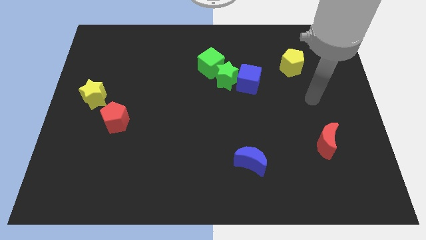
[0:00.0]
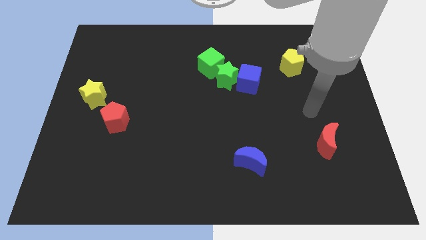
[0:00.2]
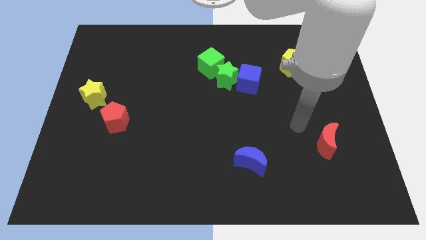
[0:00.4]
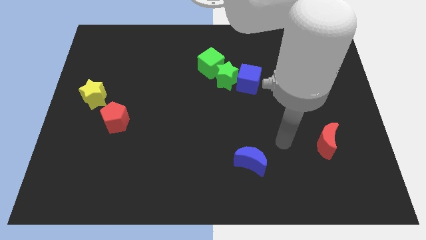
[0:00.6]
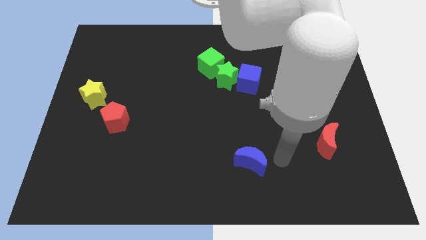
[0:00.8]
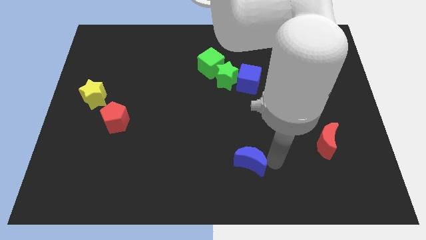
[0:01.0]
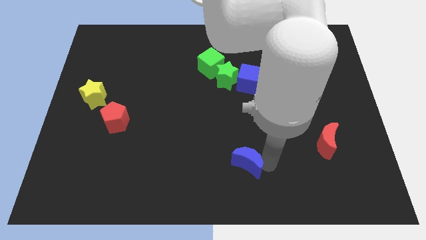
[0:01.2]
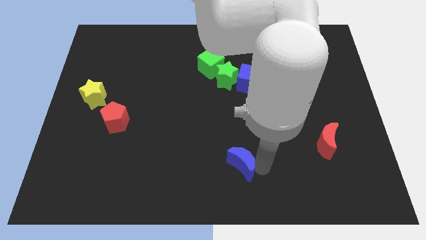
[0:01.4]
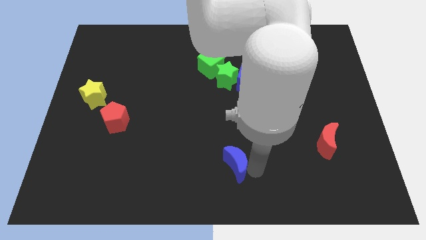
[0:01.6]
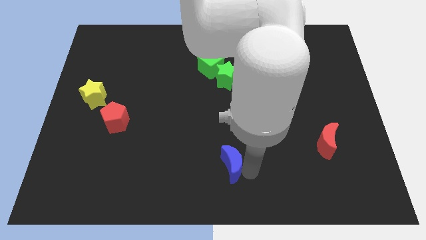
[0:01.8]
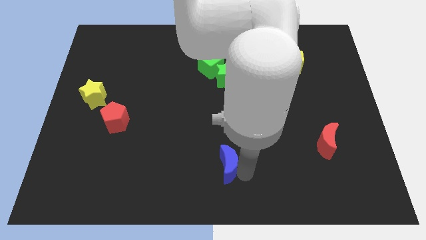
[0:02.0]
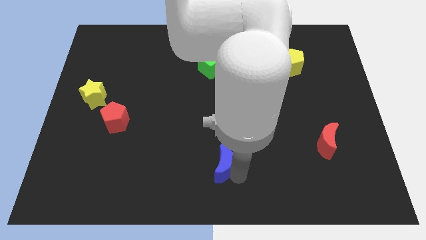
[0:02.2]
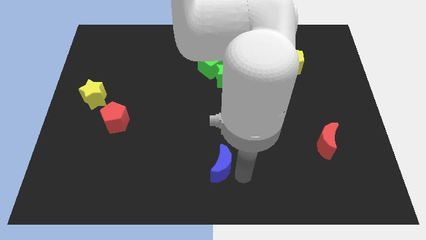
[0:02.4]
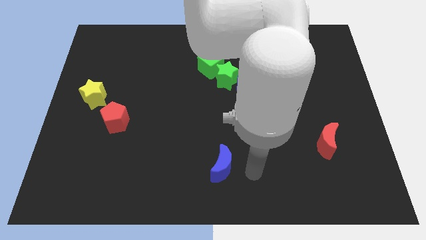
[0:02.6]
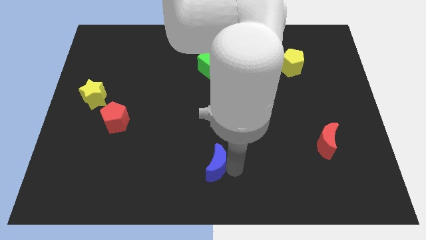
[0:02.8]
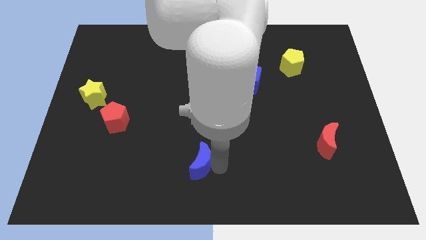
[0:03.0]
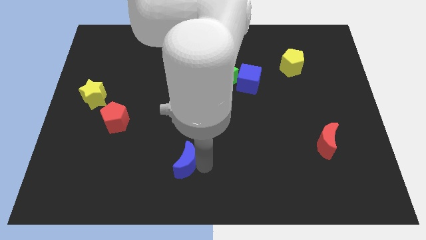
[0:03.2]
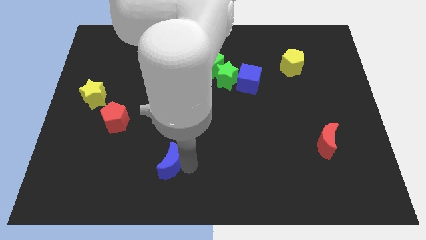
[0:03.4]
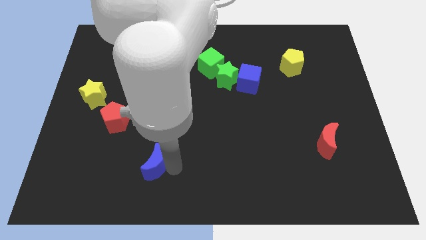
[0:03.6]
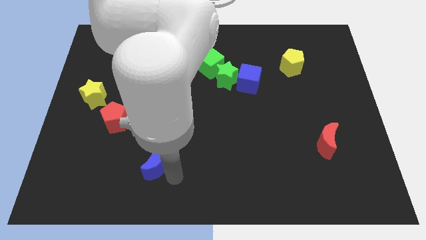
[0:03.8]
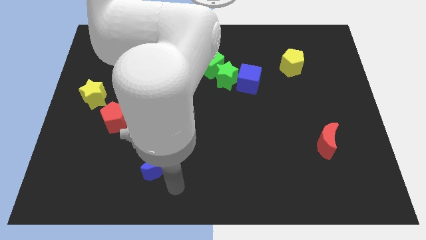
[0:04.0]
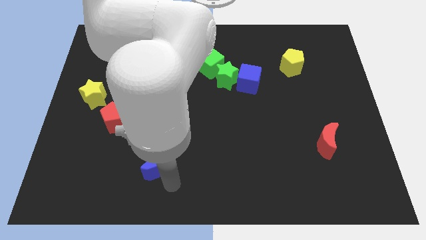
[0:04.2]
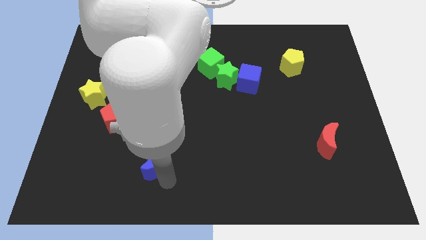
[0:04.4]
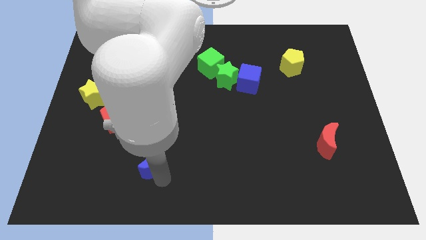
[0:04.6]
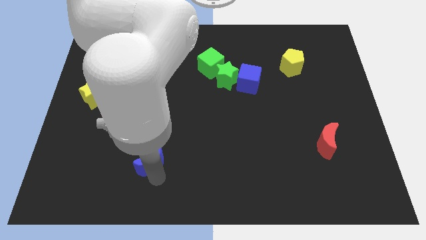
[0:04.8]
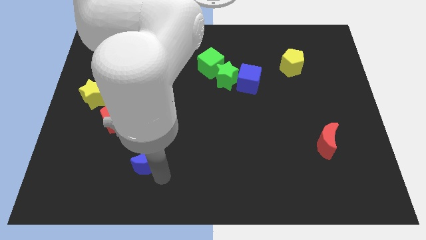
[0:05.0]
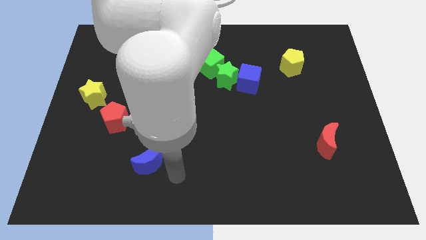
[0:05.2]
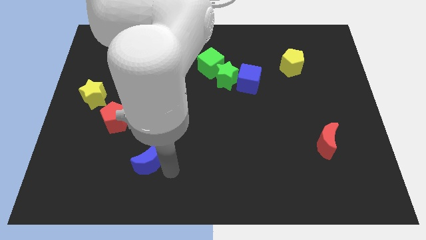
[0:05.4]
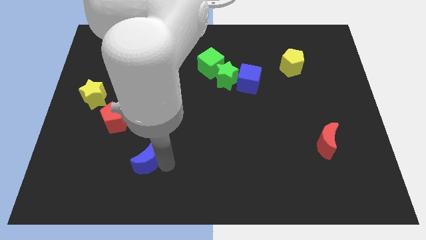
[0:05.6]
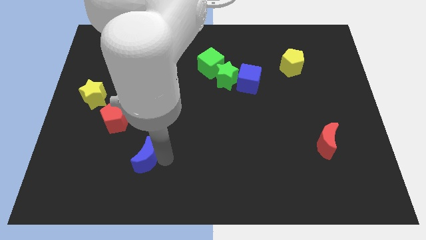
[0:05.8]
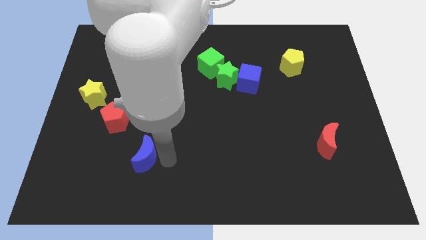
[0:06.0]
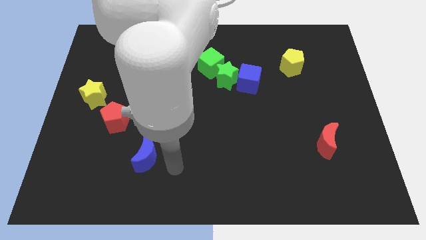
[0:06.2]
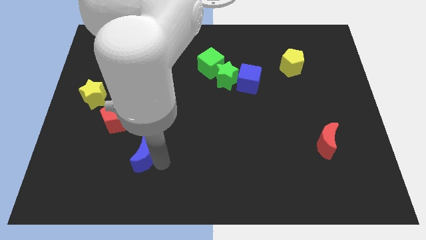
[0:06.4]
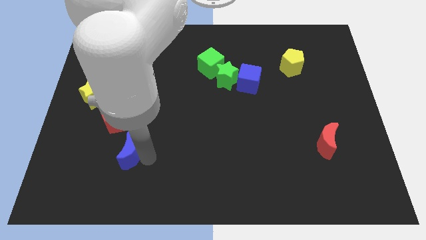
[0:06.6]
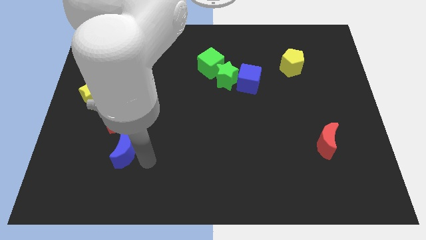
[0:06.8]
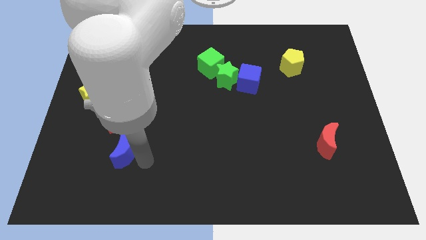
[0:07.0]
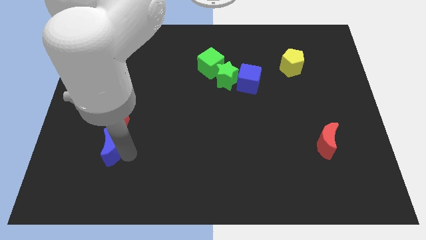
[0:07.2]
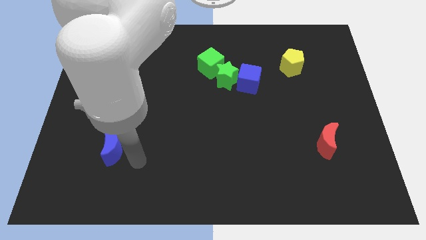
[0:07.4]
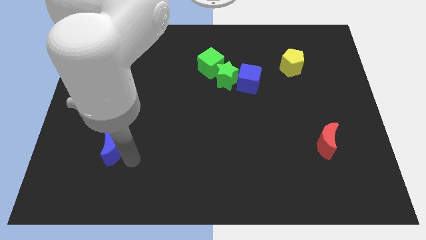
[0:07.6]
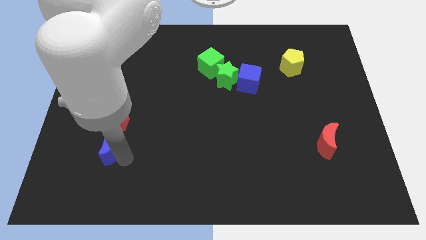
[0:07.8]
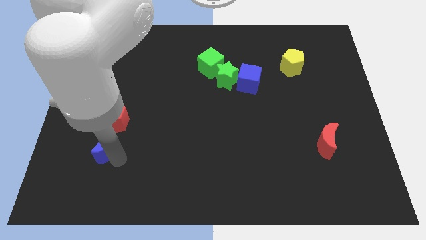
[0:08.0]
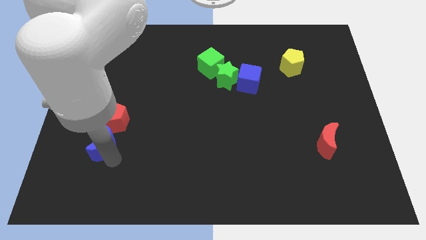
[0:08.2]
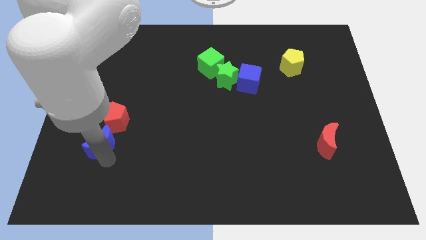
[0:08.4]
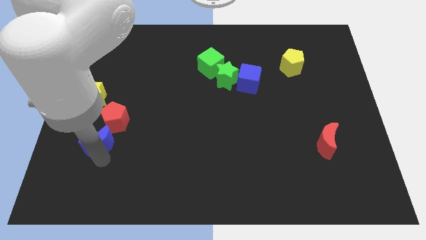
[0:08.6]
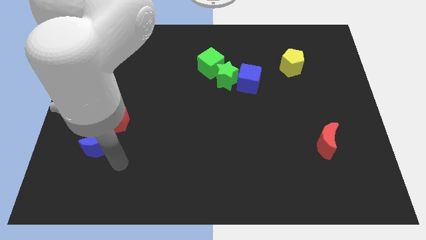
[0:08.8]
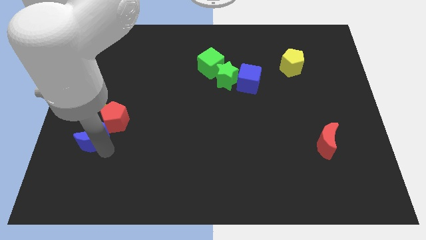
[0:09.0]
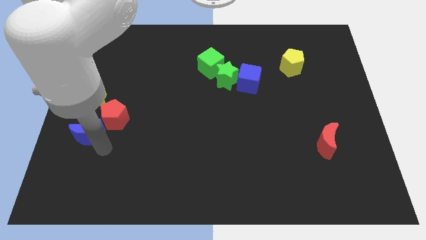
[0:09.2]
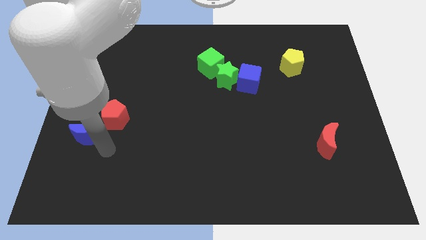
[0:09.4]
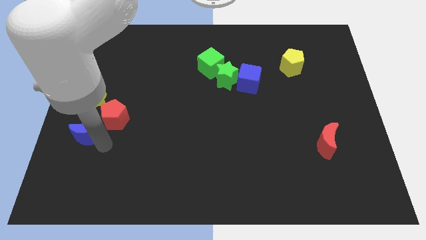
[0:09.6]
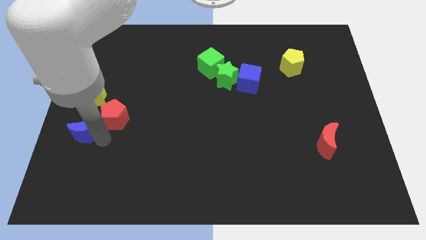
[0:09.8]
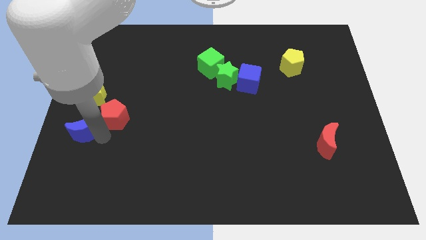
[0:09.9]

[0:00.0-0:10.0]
put the blue moon to the left side of the board

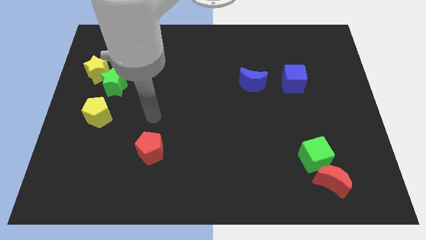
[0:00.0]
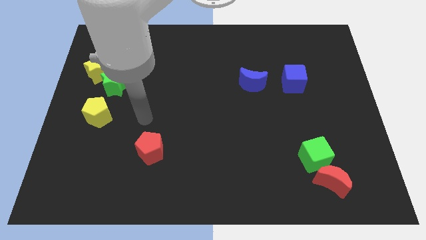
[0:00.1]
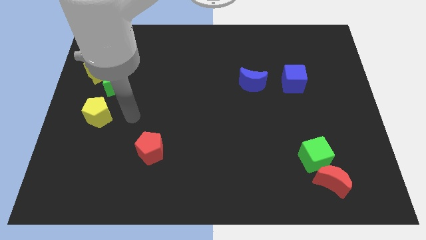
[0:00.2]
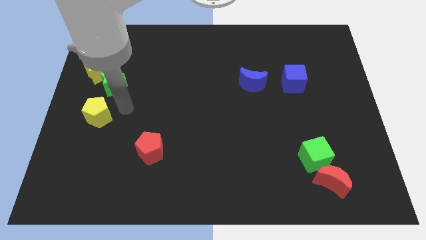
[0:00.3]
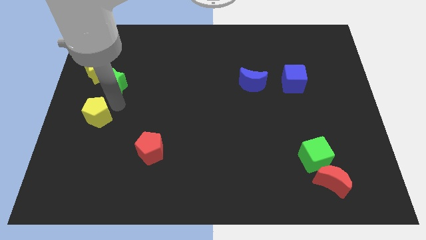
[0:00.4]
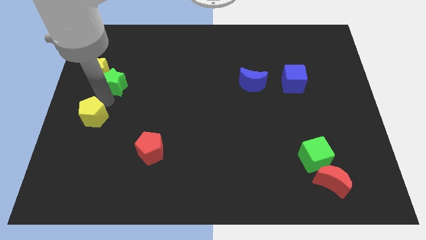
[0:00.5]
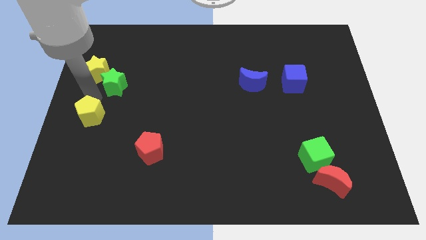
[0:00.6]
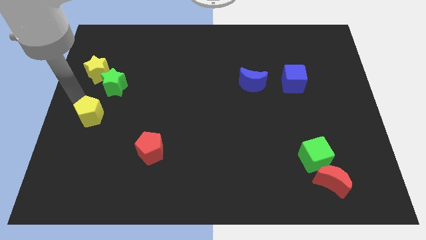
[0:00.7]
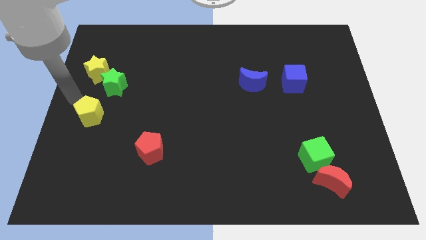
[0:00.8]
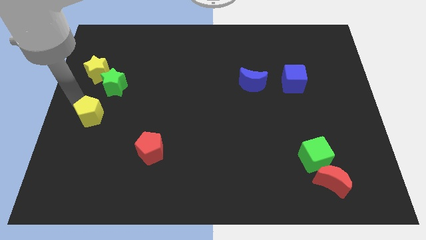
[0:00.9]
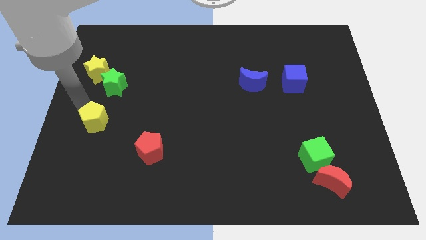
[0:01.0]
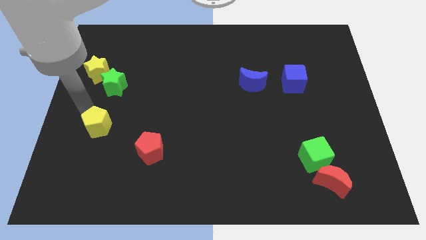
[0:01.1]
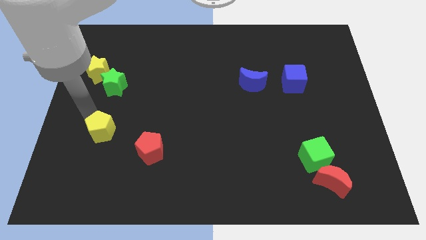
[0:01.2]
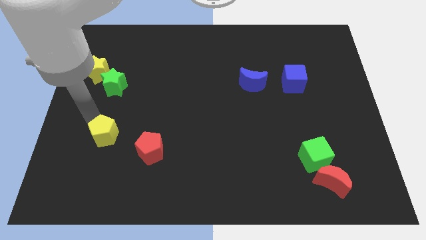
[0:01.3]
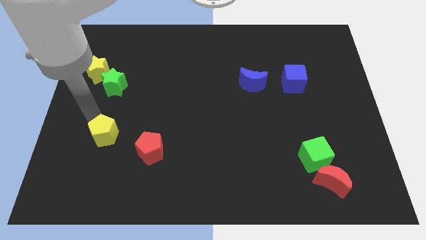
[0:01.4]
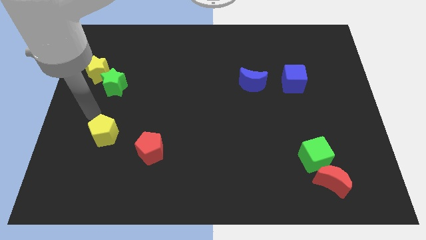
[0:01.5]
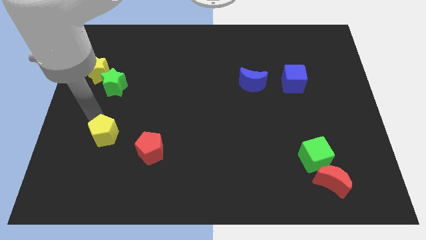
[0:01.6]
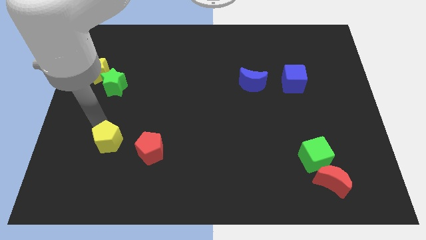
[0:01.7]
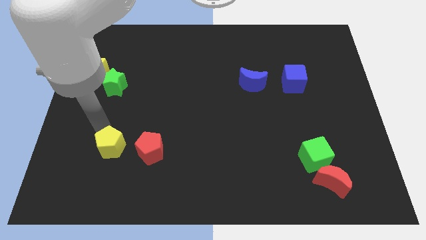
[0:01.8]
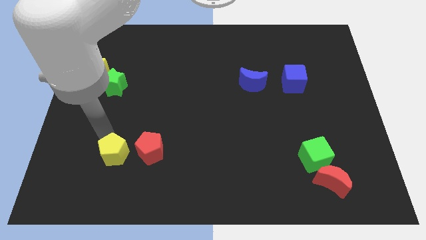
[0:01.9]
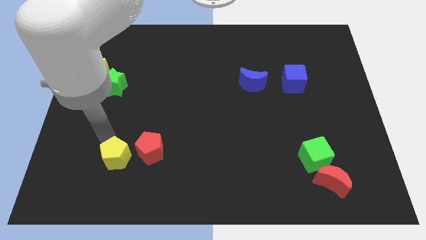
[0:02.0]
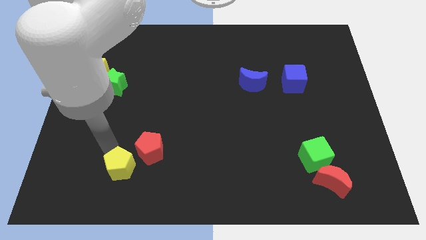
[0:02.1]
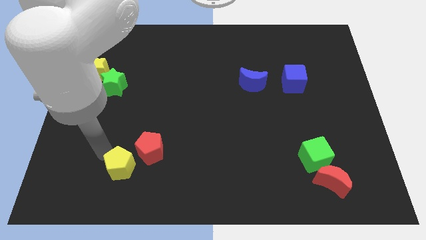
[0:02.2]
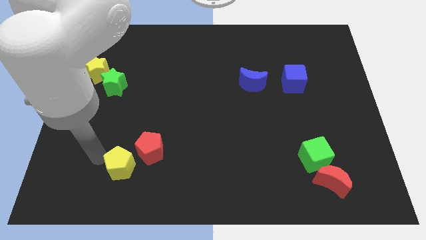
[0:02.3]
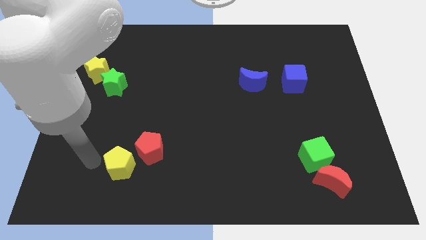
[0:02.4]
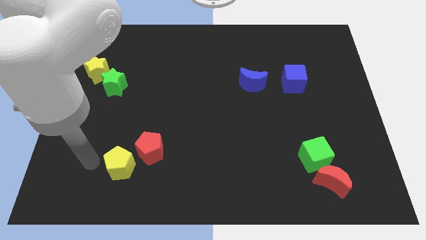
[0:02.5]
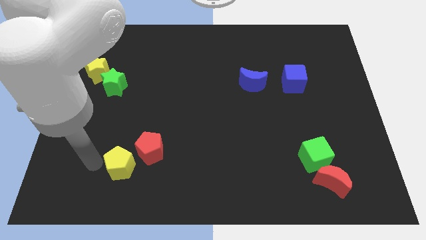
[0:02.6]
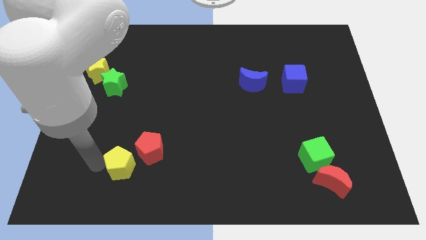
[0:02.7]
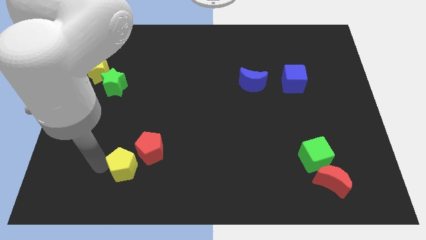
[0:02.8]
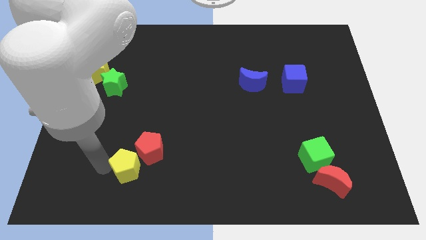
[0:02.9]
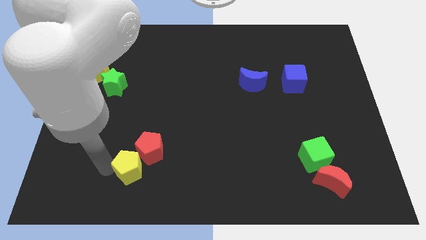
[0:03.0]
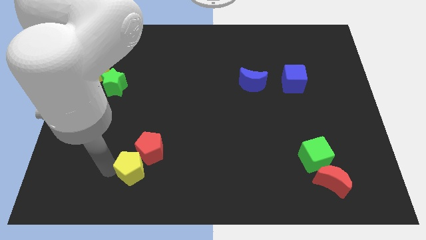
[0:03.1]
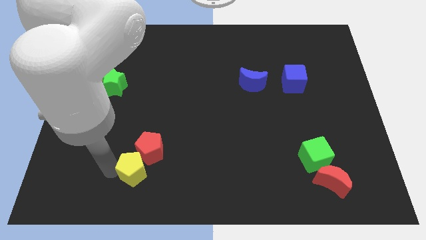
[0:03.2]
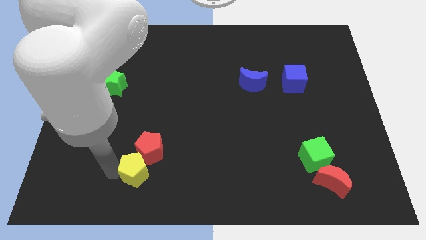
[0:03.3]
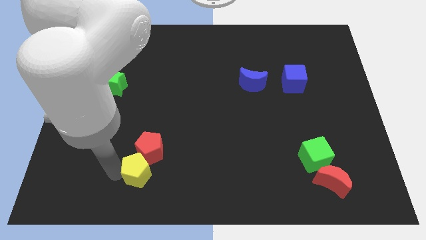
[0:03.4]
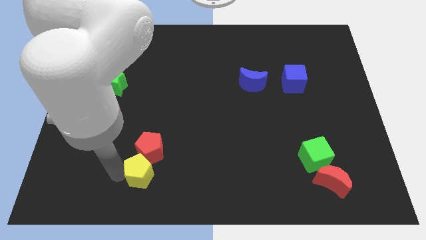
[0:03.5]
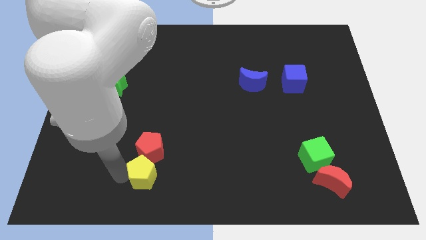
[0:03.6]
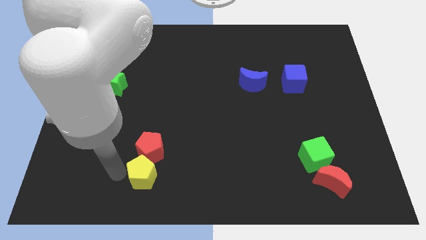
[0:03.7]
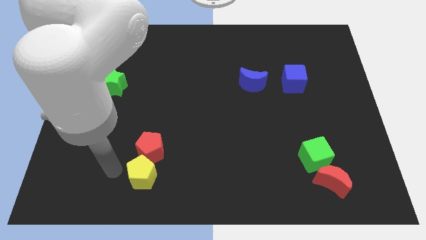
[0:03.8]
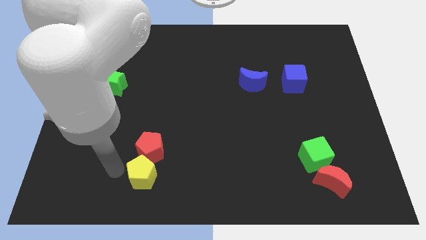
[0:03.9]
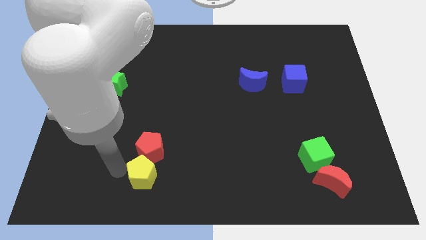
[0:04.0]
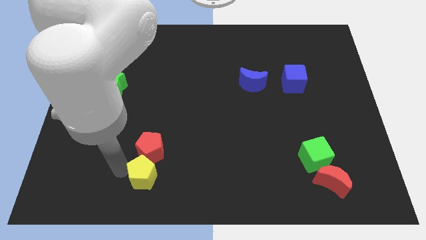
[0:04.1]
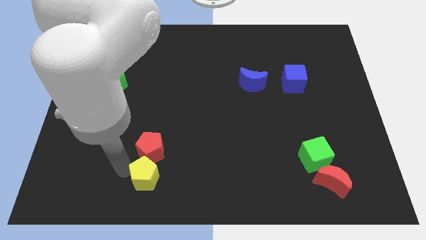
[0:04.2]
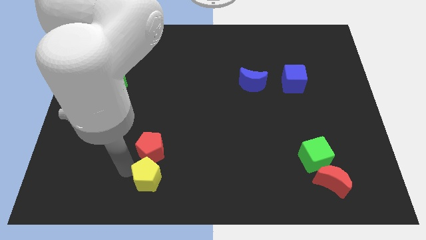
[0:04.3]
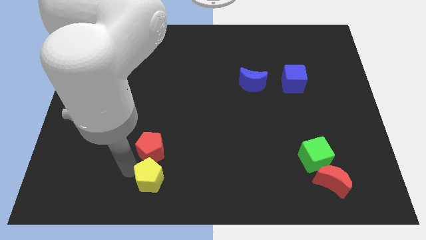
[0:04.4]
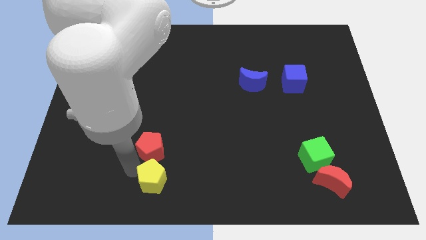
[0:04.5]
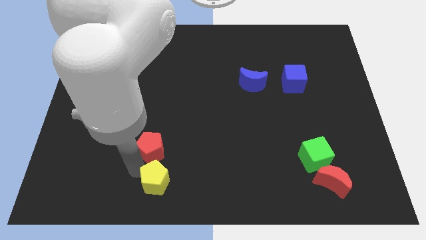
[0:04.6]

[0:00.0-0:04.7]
slide the yellow pentagon to the bottom
